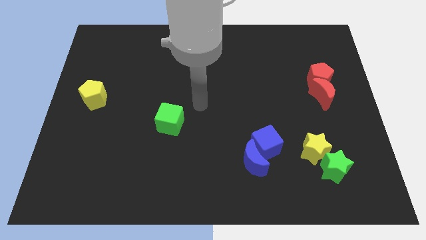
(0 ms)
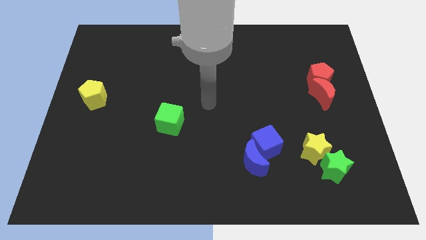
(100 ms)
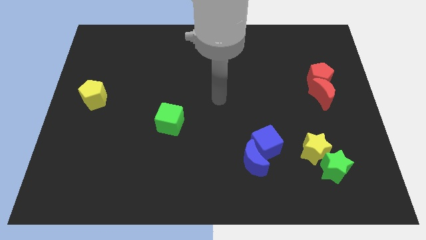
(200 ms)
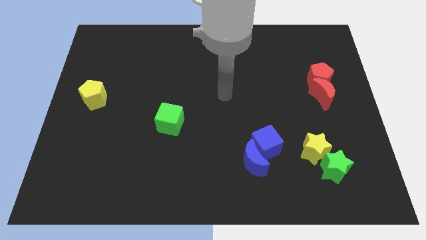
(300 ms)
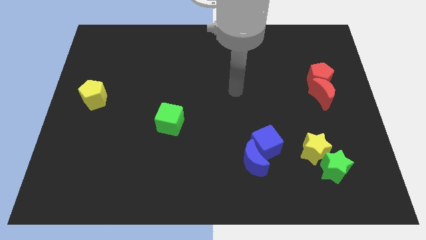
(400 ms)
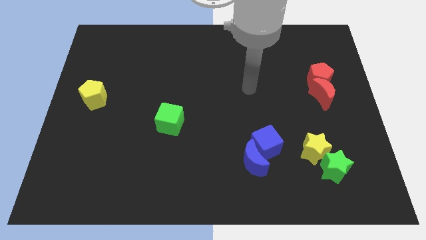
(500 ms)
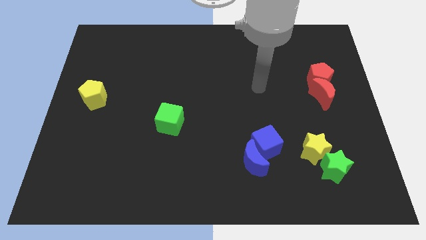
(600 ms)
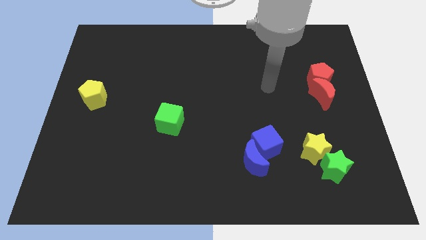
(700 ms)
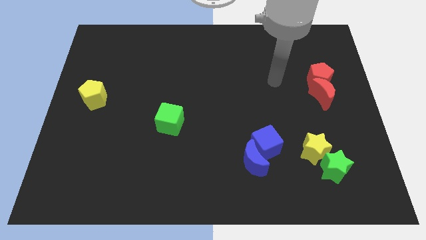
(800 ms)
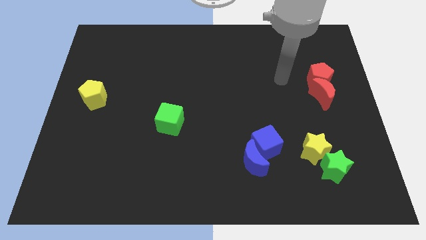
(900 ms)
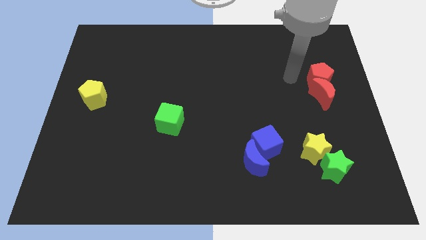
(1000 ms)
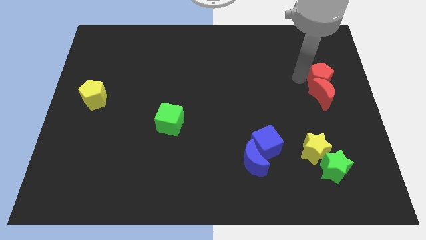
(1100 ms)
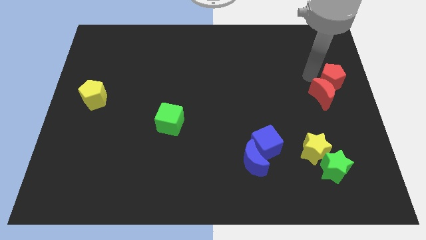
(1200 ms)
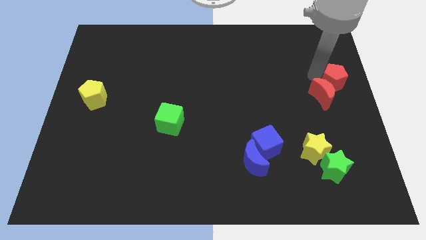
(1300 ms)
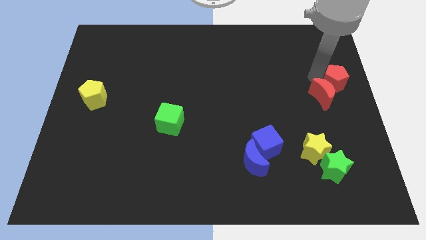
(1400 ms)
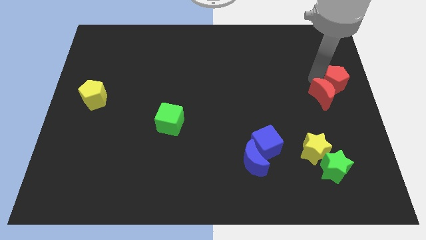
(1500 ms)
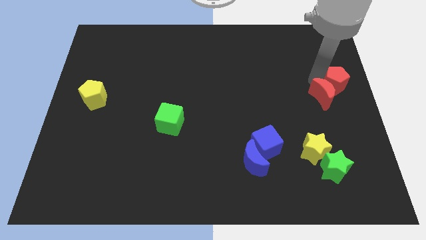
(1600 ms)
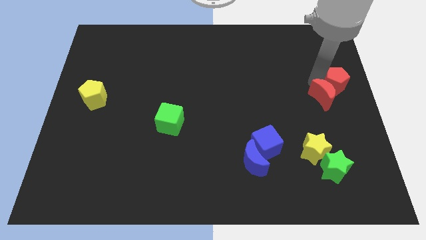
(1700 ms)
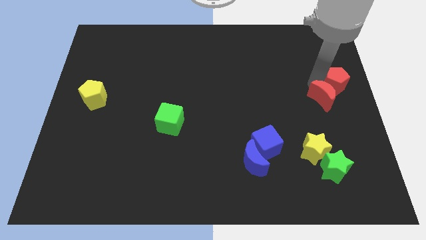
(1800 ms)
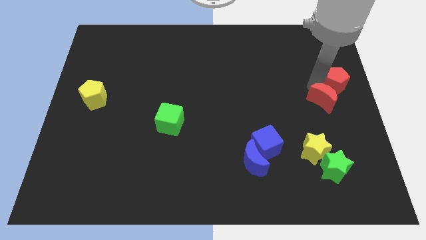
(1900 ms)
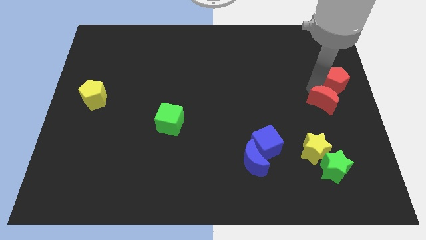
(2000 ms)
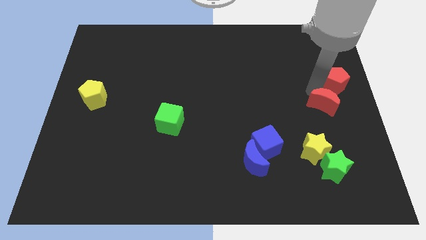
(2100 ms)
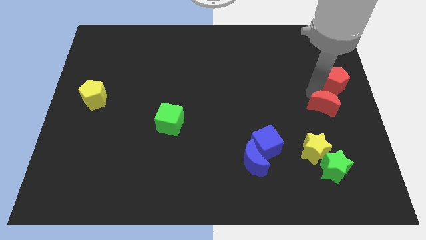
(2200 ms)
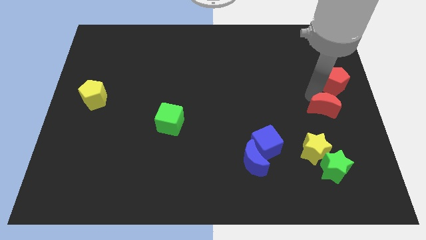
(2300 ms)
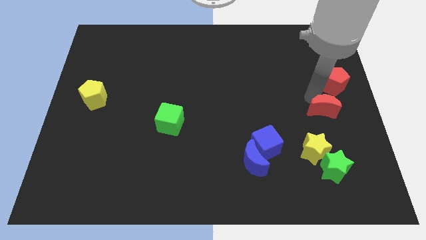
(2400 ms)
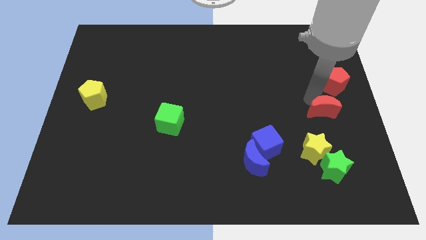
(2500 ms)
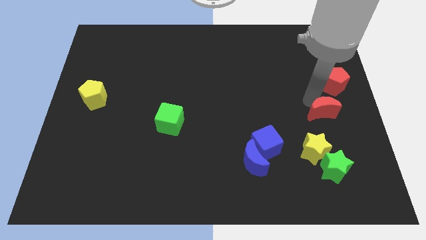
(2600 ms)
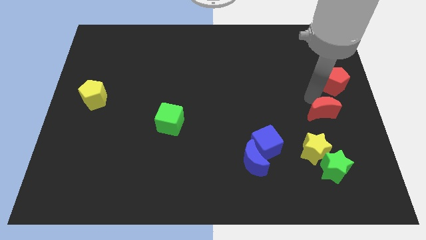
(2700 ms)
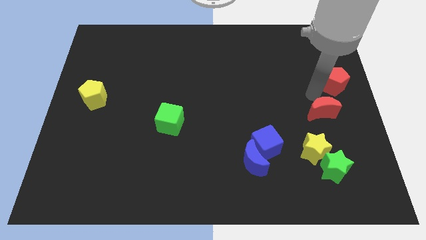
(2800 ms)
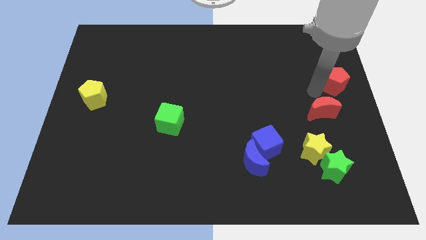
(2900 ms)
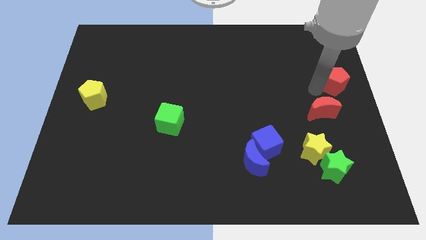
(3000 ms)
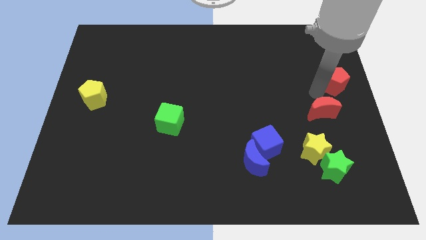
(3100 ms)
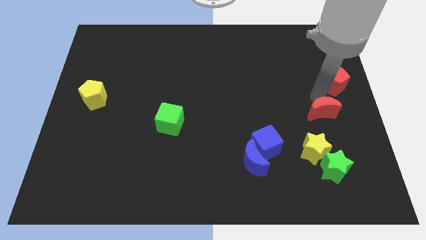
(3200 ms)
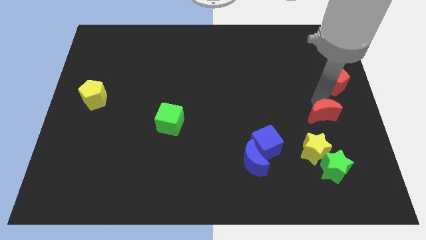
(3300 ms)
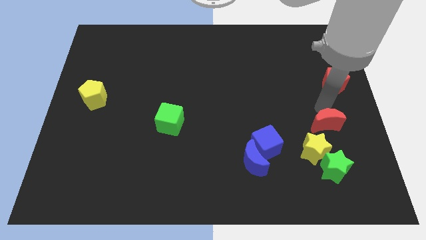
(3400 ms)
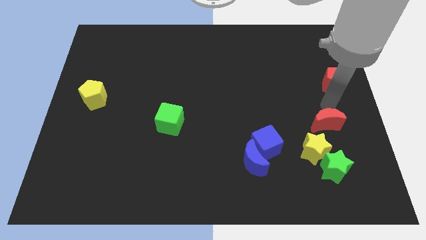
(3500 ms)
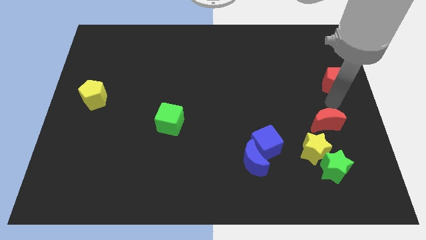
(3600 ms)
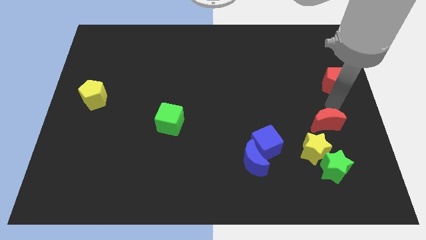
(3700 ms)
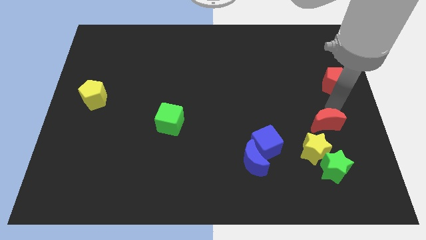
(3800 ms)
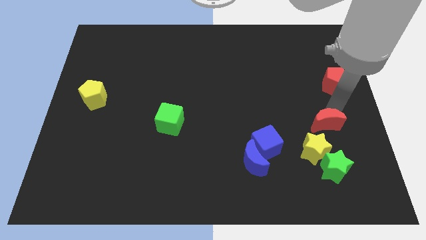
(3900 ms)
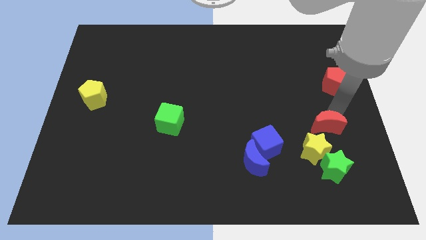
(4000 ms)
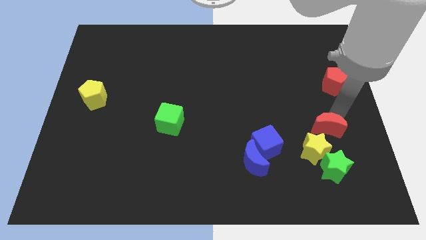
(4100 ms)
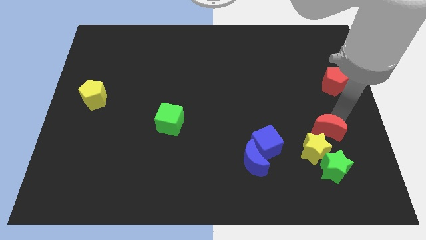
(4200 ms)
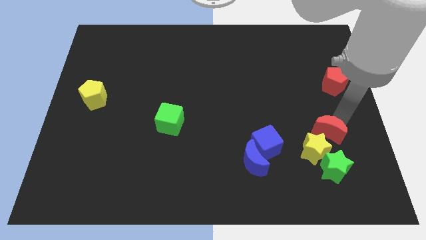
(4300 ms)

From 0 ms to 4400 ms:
put the red moon to the yellow star

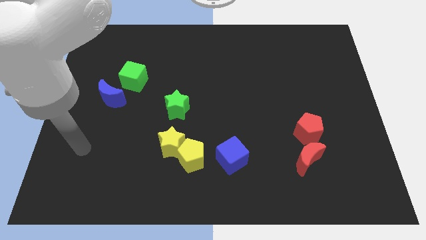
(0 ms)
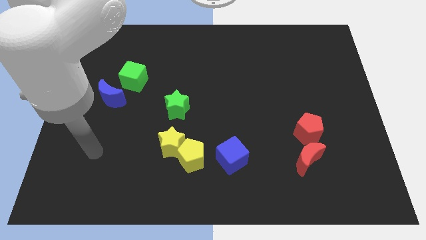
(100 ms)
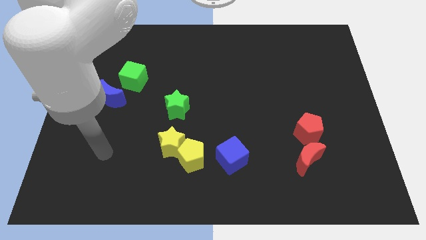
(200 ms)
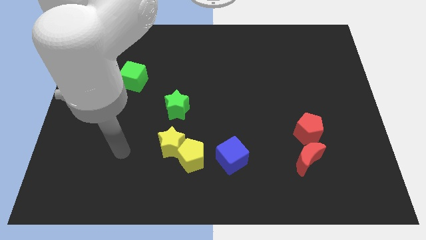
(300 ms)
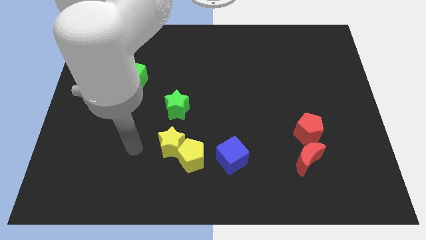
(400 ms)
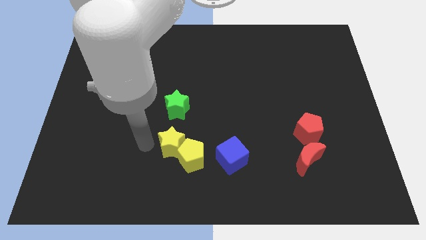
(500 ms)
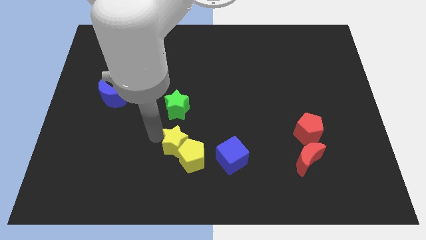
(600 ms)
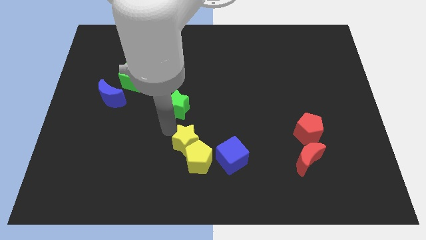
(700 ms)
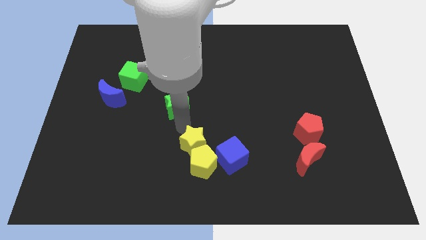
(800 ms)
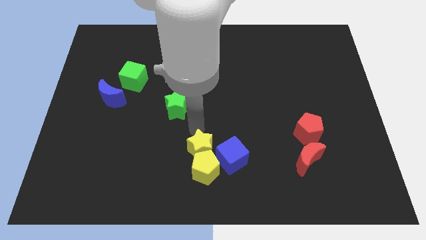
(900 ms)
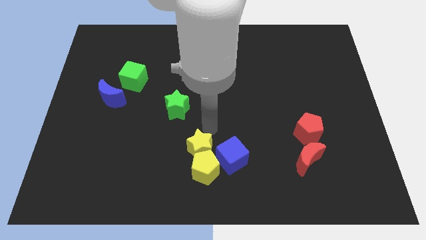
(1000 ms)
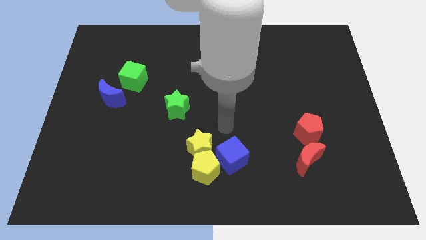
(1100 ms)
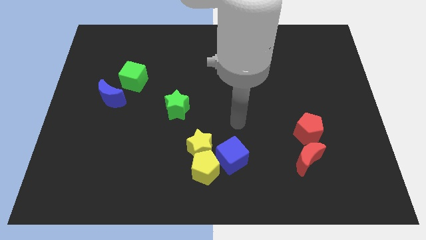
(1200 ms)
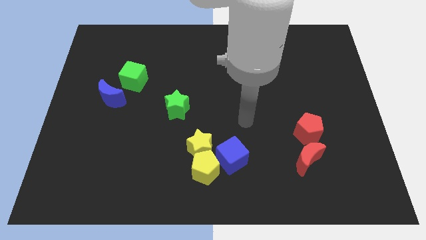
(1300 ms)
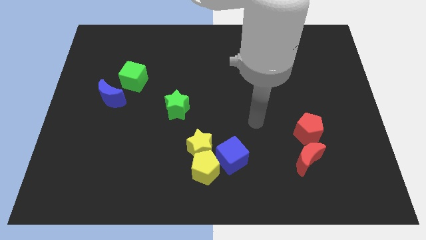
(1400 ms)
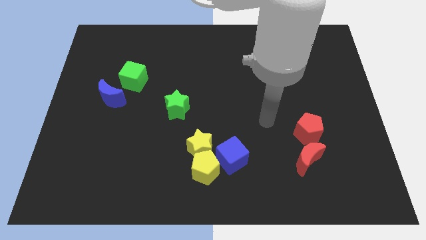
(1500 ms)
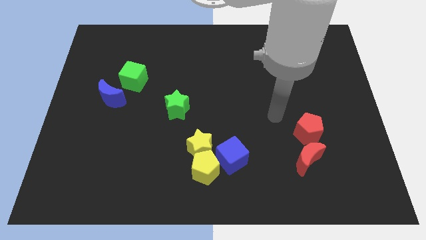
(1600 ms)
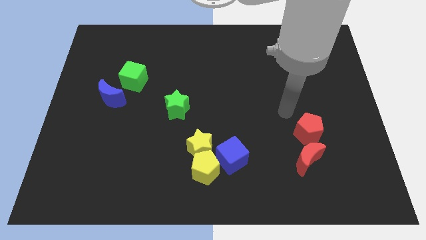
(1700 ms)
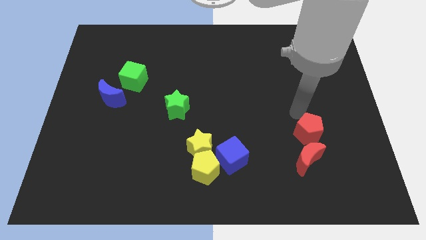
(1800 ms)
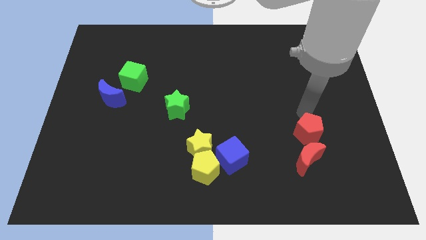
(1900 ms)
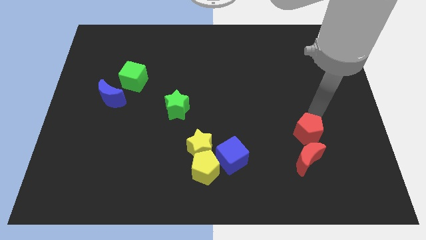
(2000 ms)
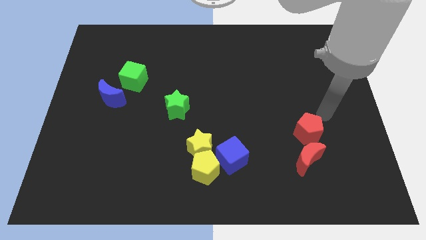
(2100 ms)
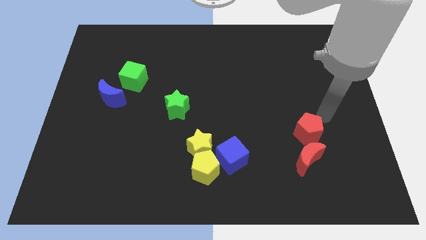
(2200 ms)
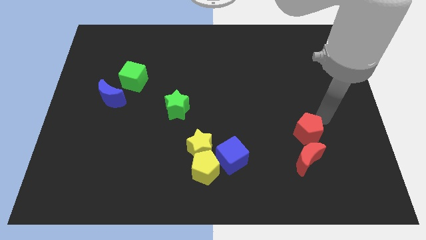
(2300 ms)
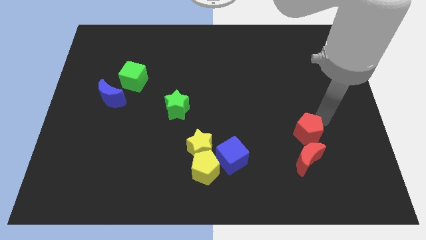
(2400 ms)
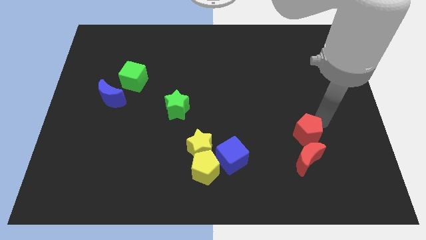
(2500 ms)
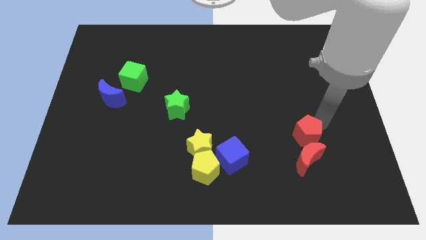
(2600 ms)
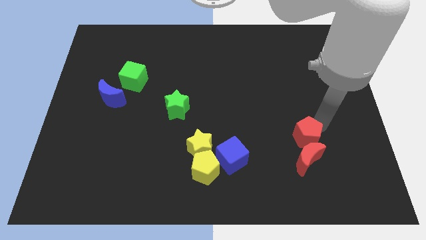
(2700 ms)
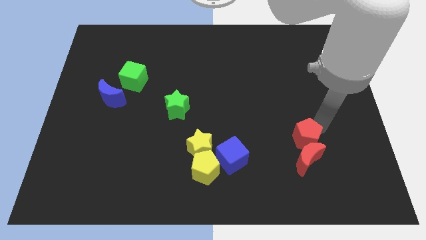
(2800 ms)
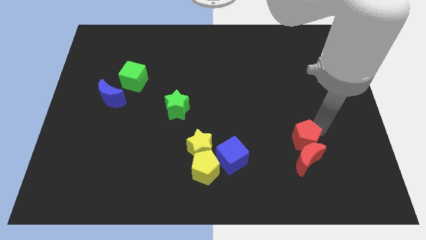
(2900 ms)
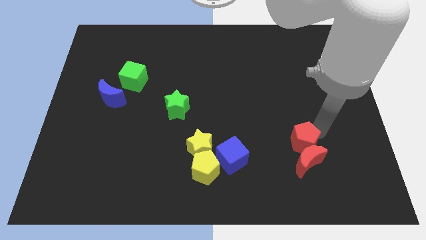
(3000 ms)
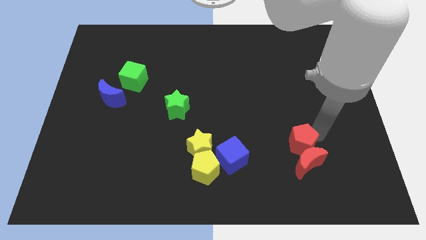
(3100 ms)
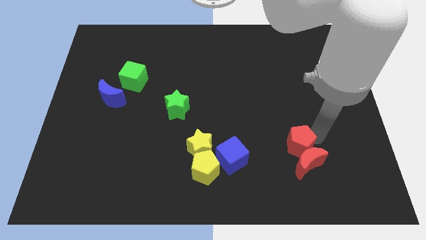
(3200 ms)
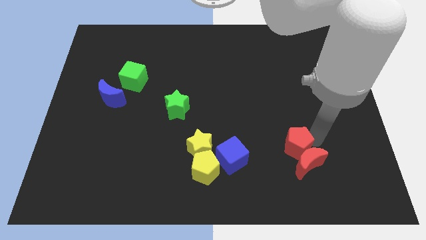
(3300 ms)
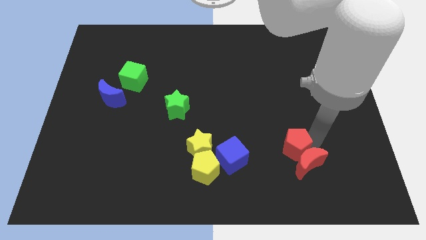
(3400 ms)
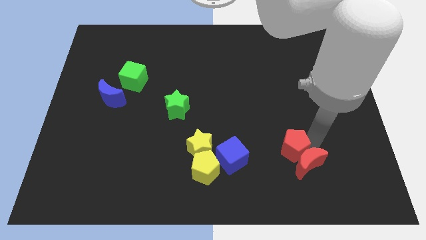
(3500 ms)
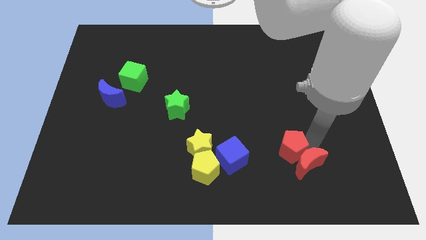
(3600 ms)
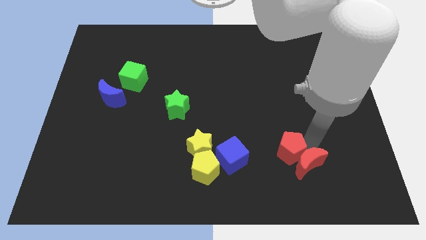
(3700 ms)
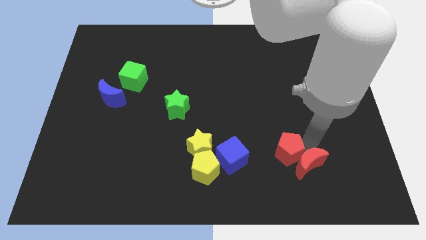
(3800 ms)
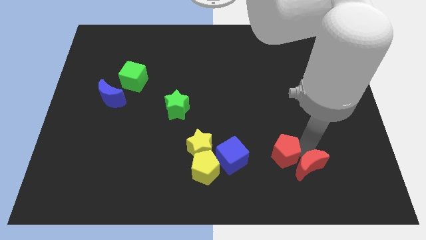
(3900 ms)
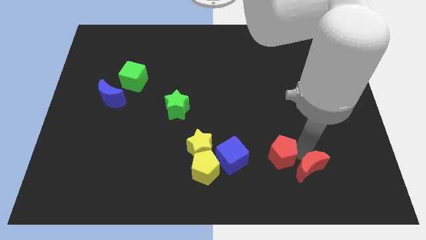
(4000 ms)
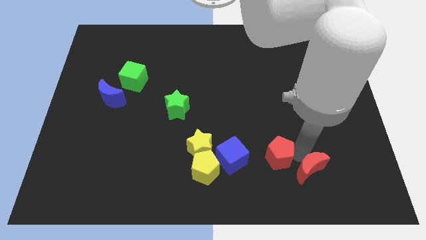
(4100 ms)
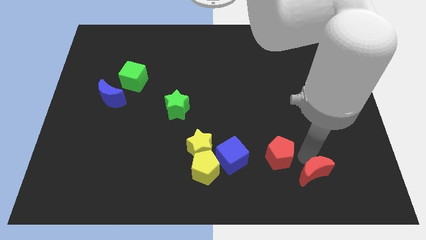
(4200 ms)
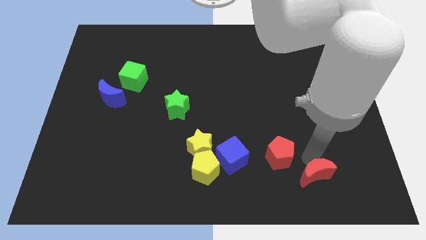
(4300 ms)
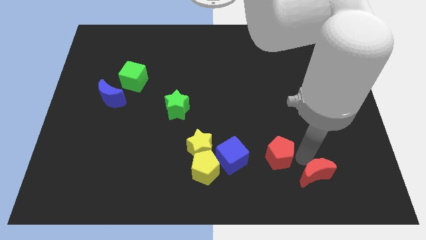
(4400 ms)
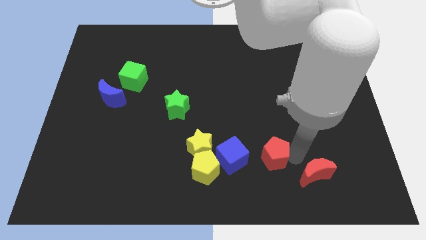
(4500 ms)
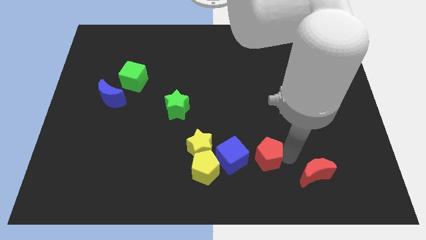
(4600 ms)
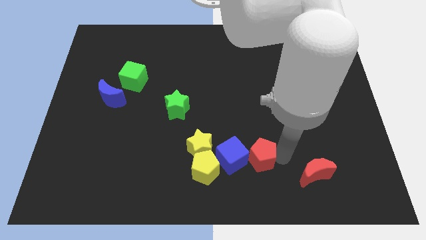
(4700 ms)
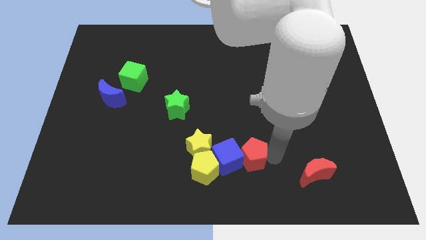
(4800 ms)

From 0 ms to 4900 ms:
push the red pentagon next to the blue cube
